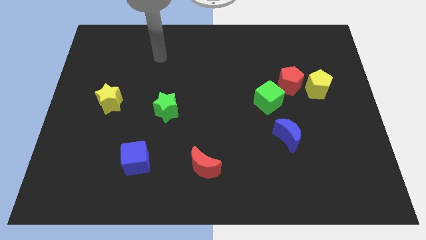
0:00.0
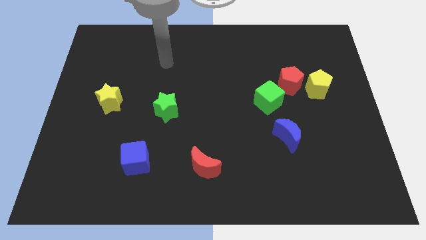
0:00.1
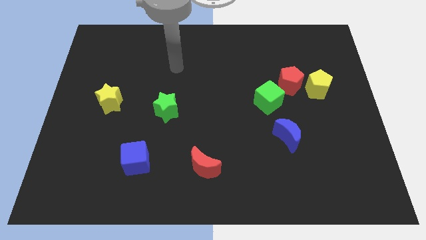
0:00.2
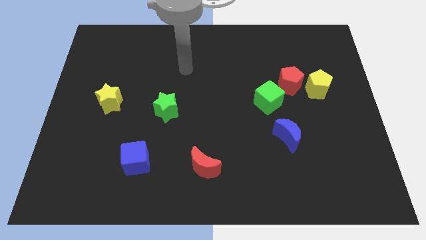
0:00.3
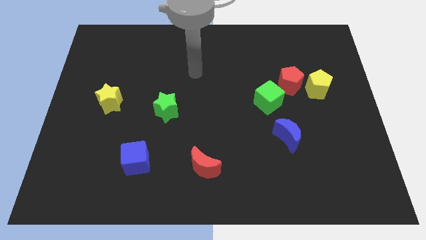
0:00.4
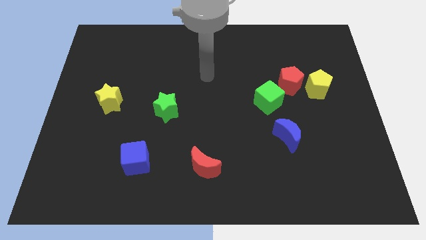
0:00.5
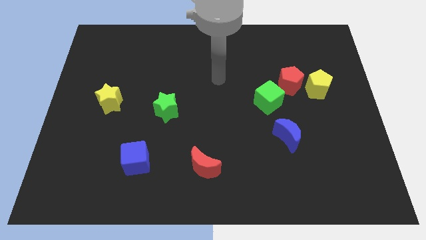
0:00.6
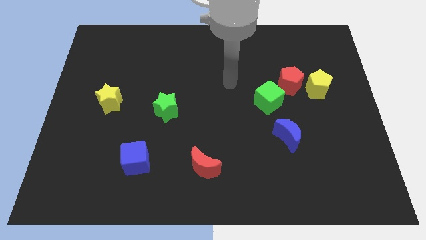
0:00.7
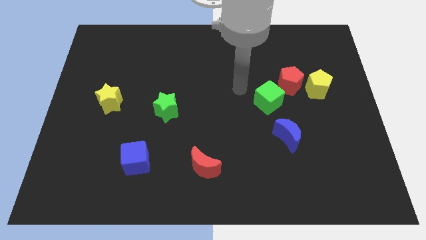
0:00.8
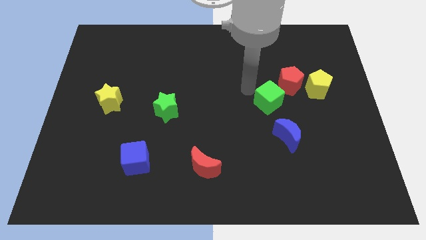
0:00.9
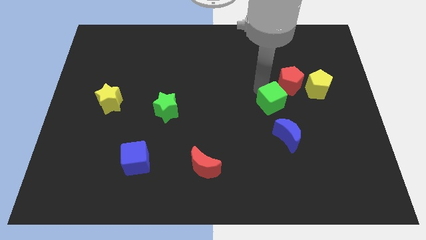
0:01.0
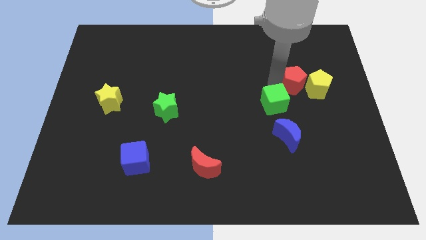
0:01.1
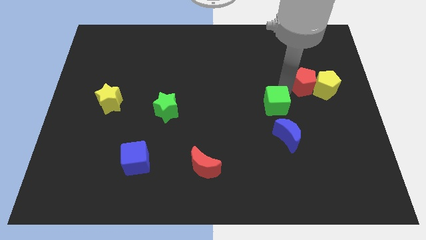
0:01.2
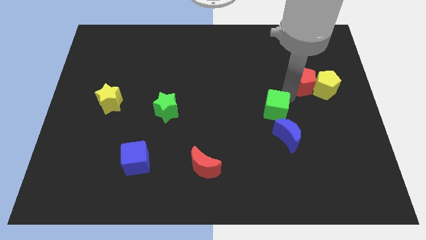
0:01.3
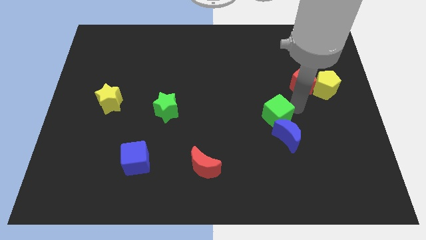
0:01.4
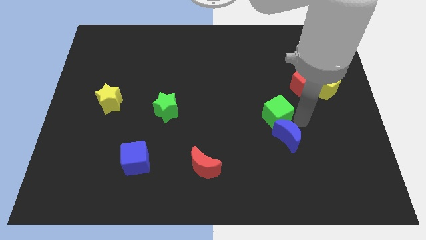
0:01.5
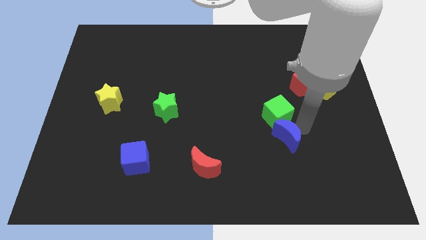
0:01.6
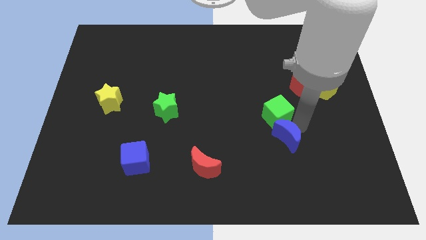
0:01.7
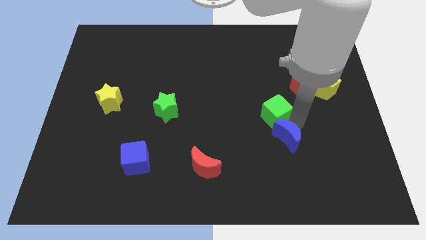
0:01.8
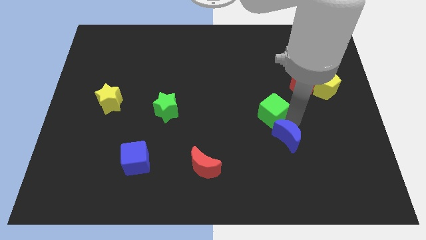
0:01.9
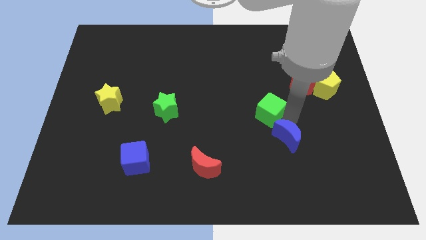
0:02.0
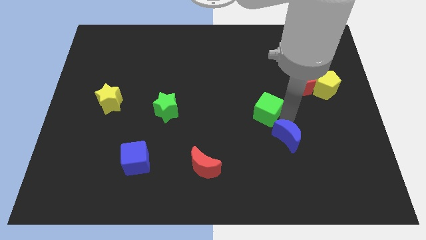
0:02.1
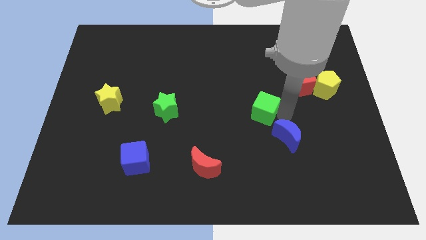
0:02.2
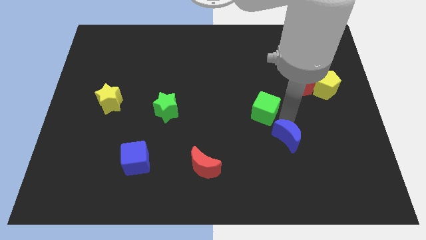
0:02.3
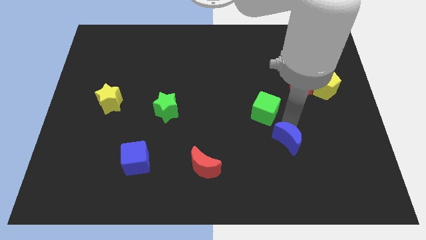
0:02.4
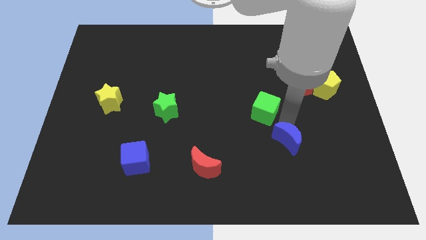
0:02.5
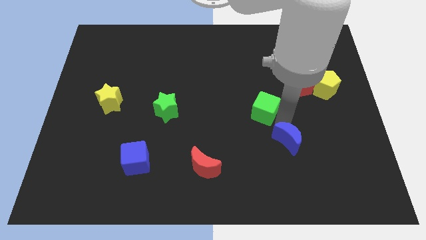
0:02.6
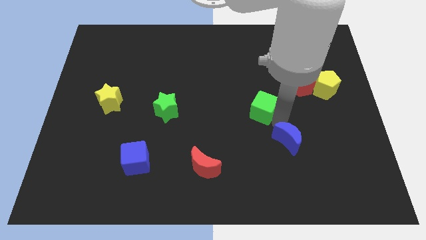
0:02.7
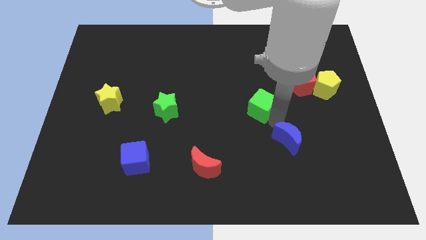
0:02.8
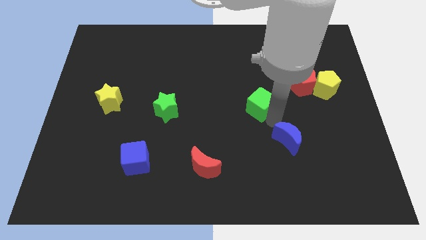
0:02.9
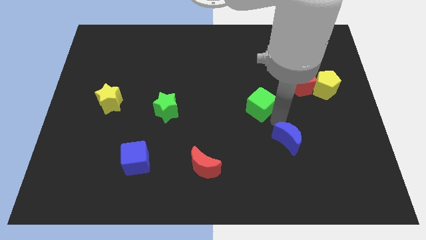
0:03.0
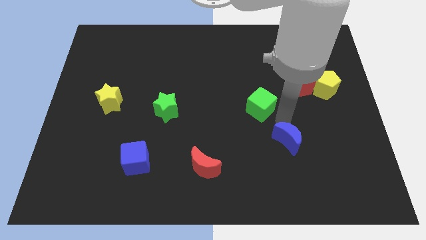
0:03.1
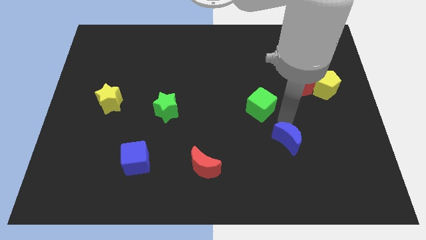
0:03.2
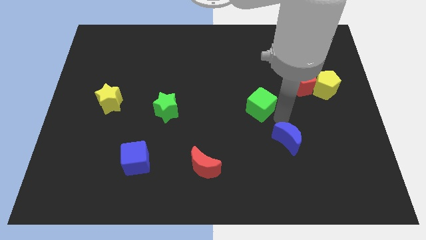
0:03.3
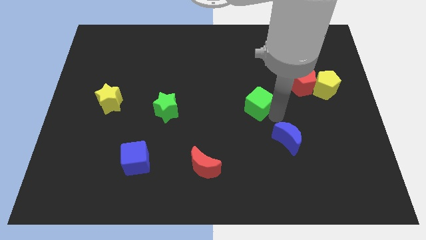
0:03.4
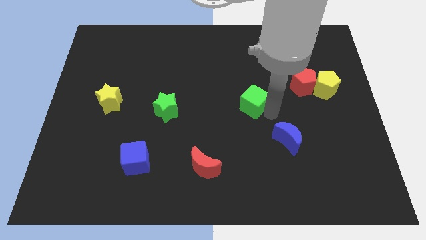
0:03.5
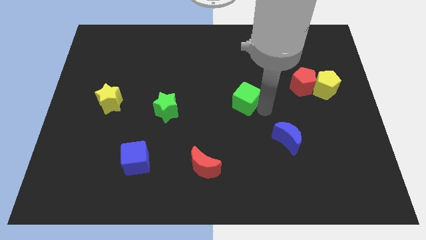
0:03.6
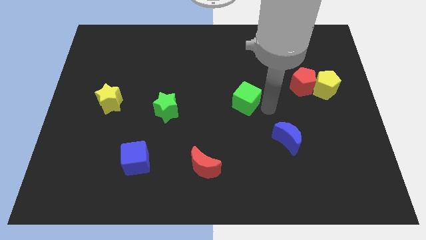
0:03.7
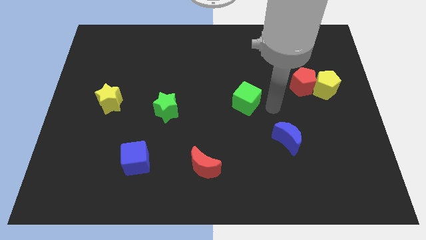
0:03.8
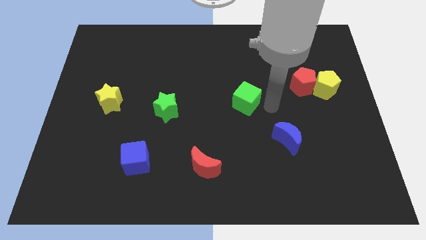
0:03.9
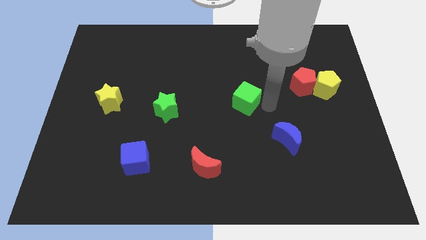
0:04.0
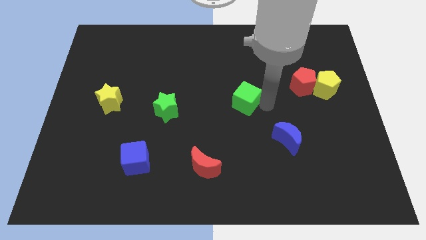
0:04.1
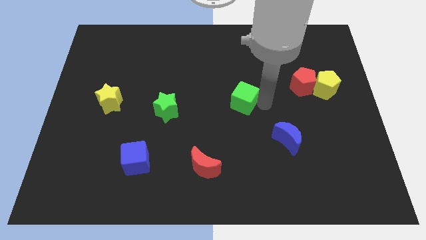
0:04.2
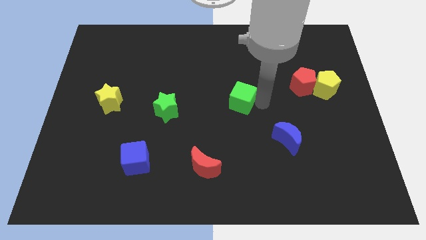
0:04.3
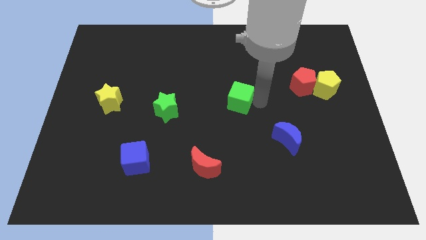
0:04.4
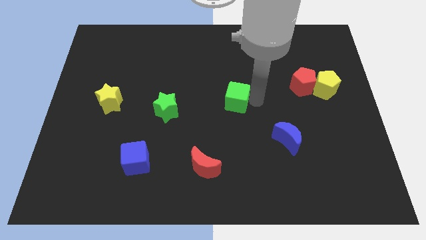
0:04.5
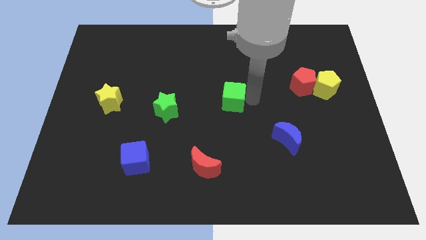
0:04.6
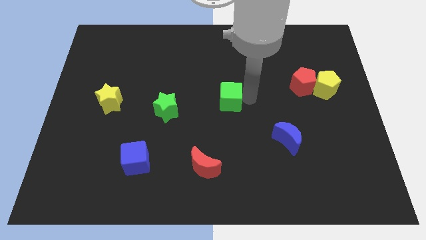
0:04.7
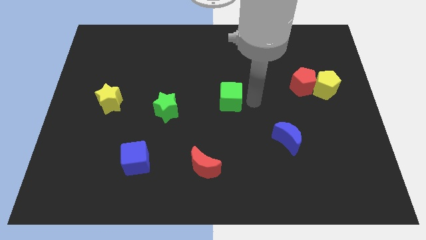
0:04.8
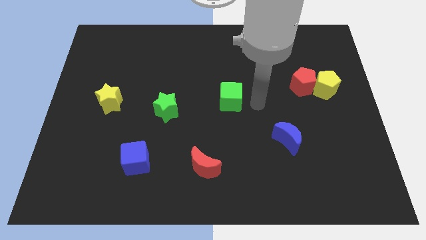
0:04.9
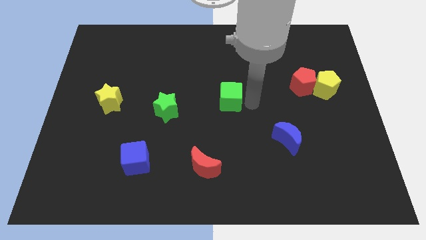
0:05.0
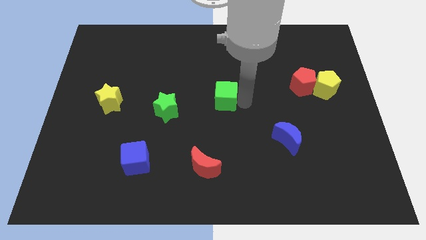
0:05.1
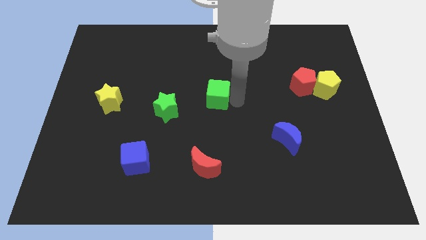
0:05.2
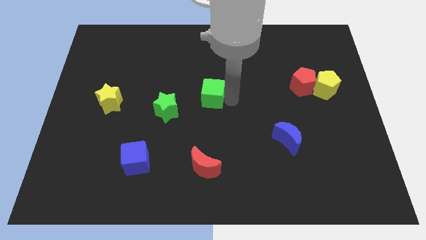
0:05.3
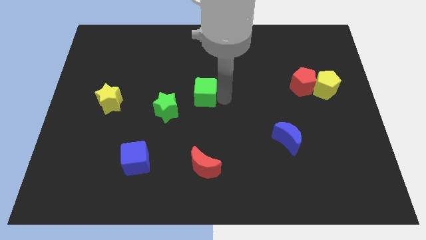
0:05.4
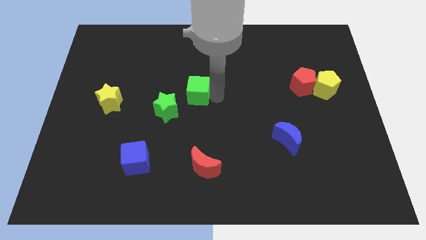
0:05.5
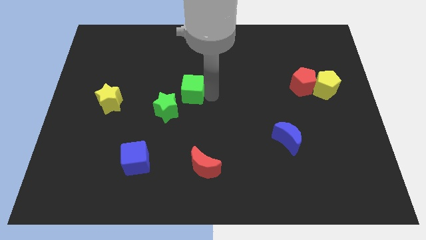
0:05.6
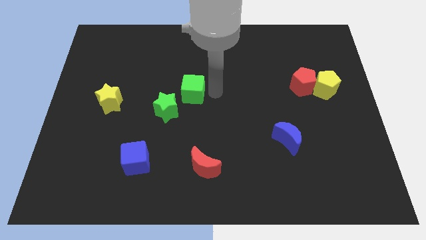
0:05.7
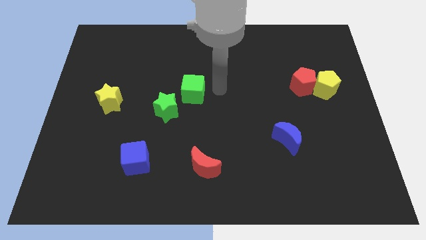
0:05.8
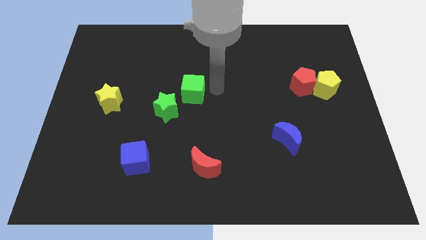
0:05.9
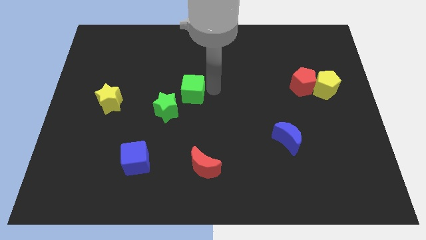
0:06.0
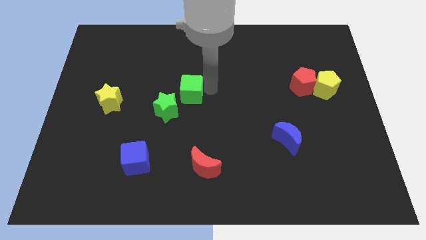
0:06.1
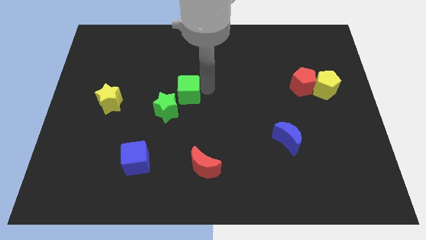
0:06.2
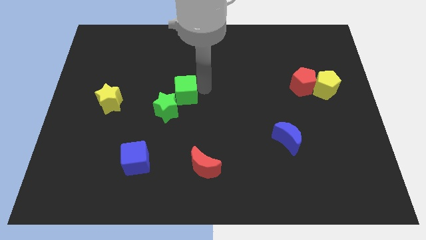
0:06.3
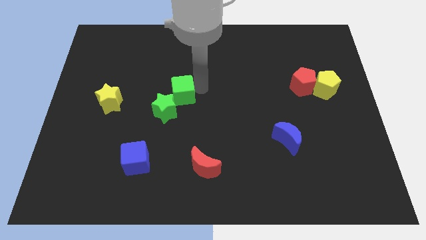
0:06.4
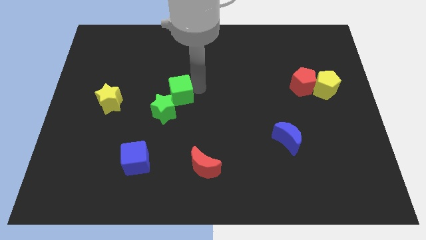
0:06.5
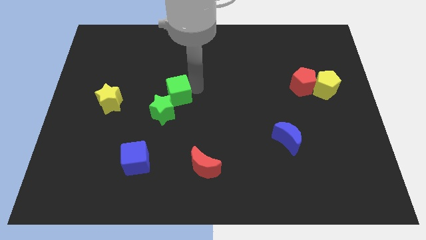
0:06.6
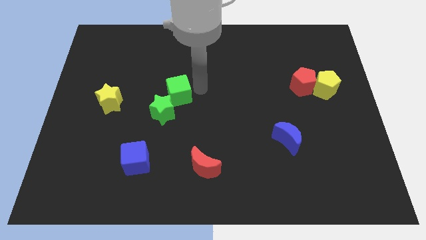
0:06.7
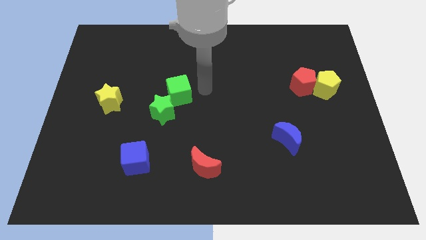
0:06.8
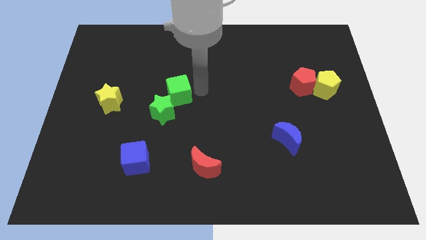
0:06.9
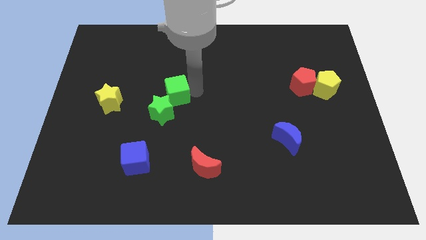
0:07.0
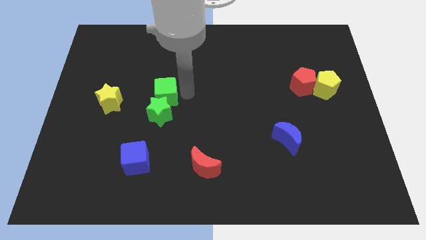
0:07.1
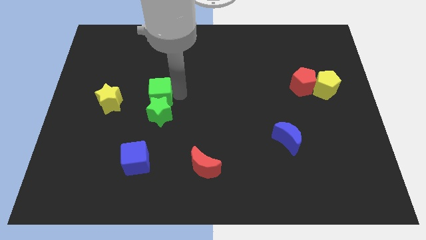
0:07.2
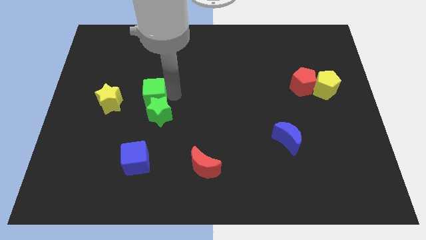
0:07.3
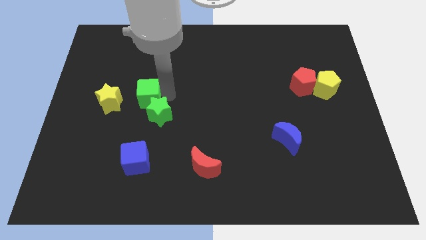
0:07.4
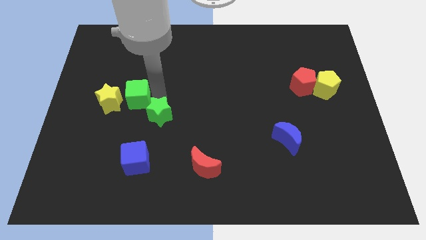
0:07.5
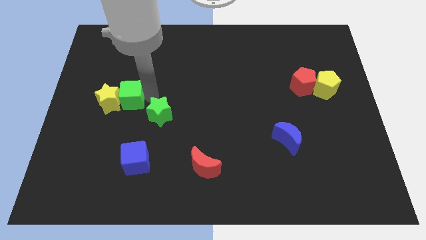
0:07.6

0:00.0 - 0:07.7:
move the green cube close to the yellow star
